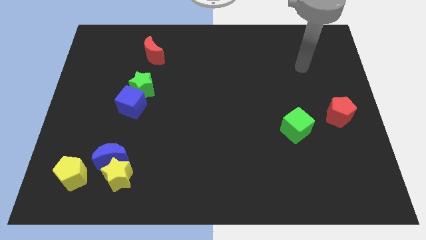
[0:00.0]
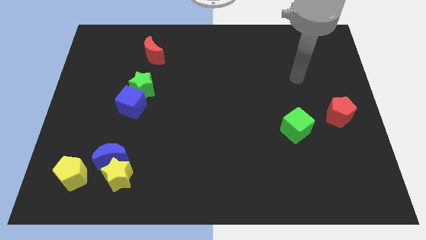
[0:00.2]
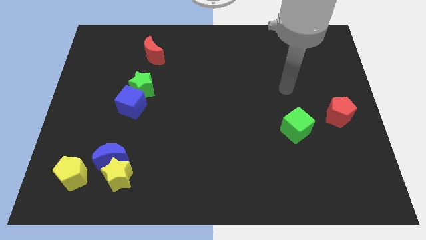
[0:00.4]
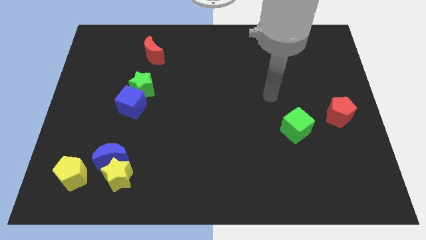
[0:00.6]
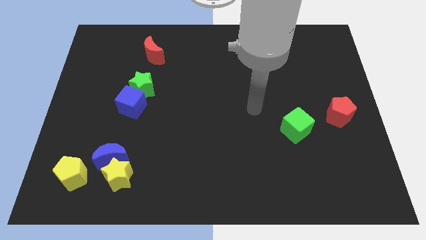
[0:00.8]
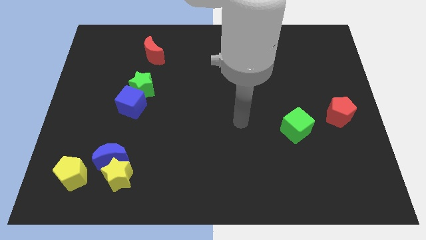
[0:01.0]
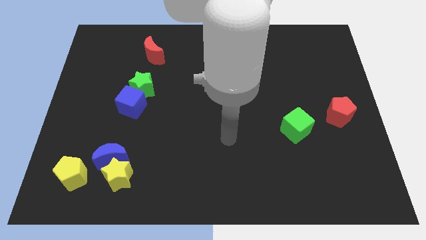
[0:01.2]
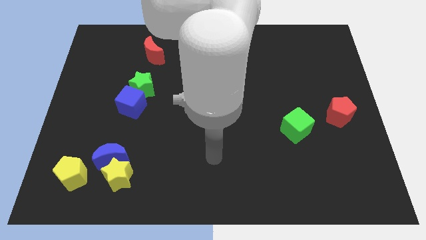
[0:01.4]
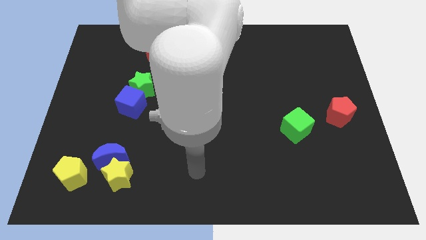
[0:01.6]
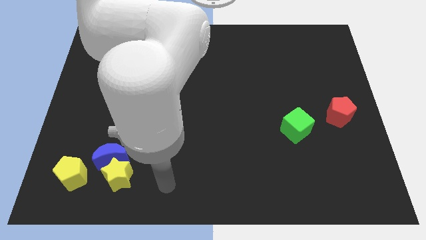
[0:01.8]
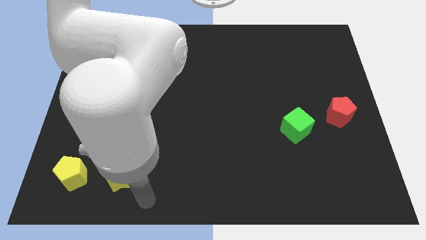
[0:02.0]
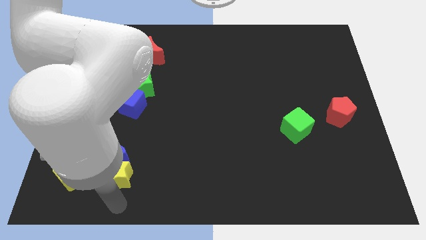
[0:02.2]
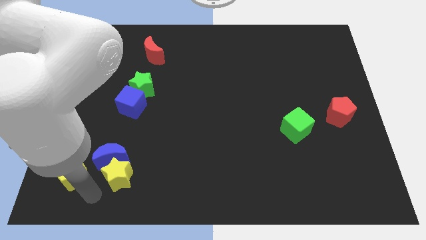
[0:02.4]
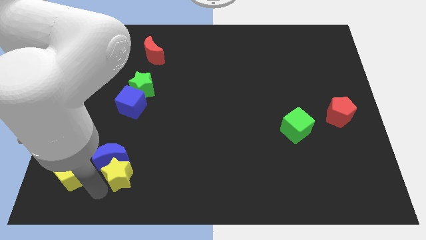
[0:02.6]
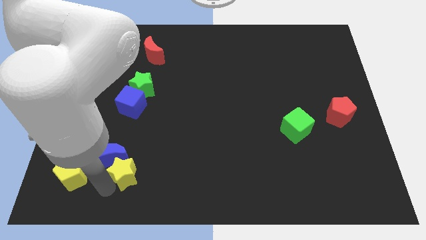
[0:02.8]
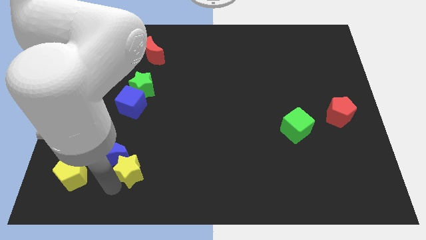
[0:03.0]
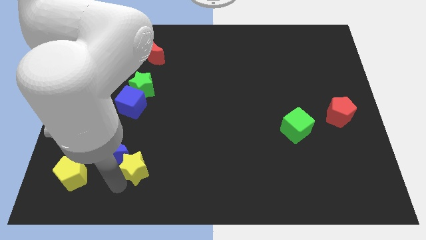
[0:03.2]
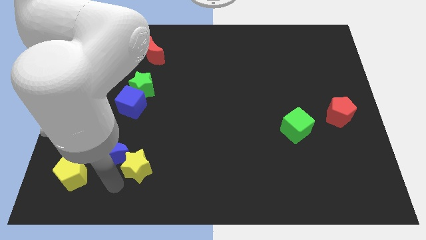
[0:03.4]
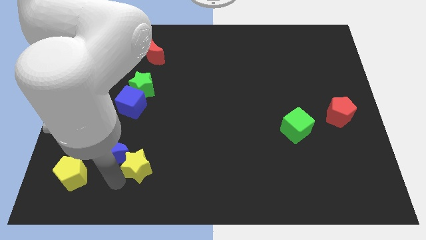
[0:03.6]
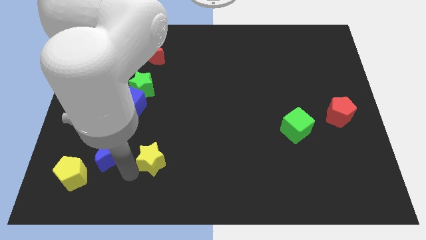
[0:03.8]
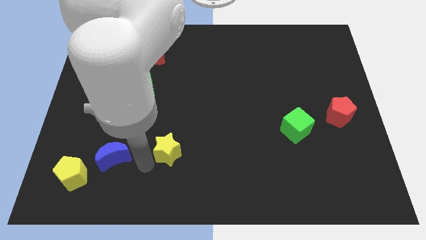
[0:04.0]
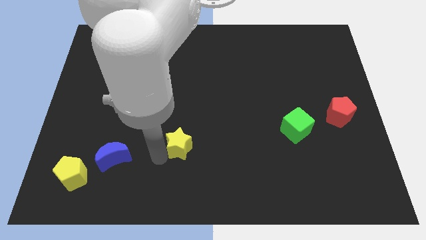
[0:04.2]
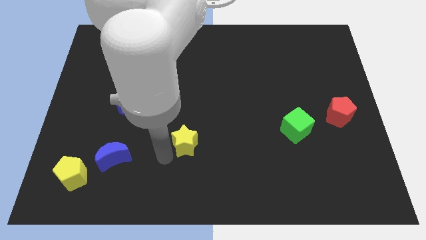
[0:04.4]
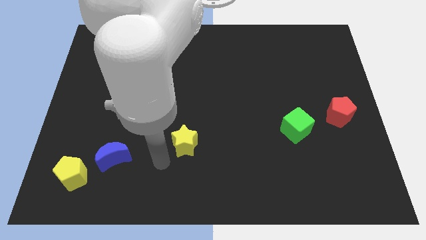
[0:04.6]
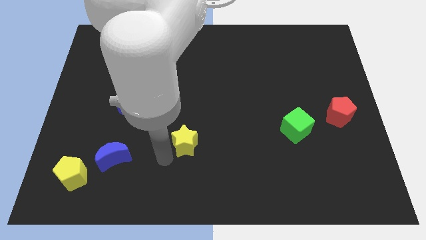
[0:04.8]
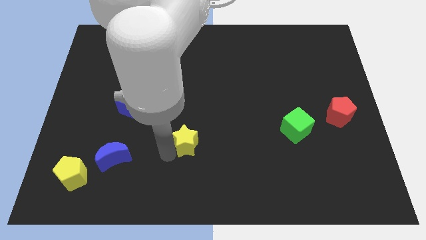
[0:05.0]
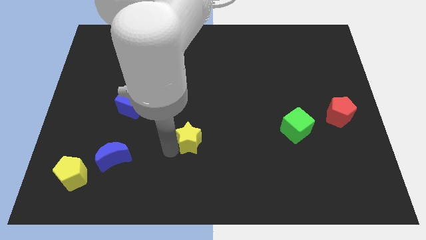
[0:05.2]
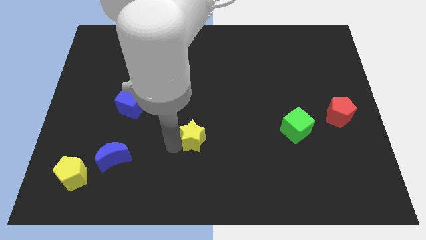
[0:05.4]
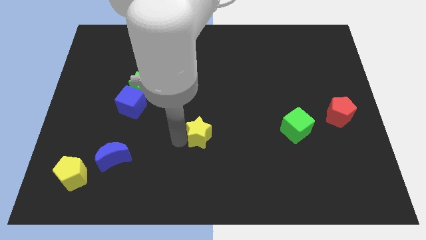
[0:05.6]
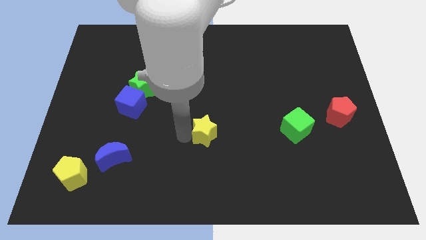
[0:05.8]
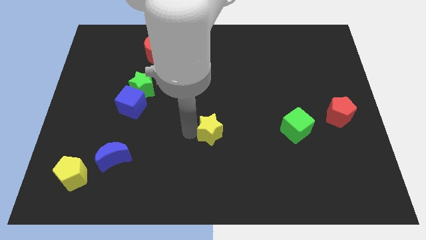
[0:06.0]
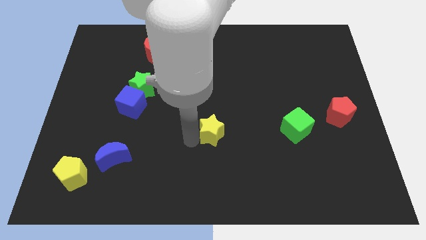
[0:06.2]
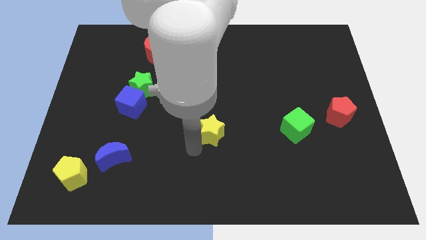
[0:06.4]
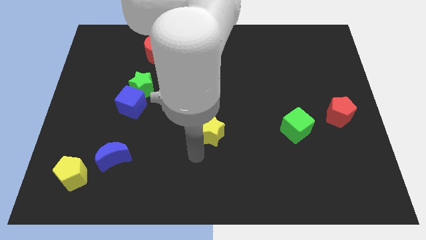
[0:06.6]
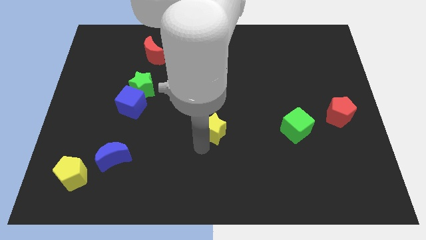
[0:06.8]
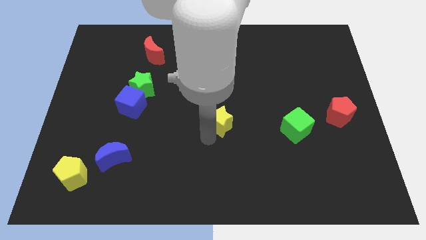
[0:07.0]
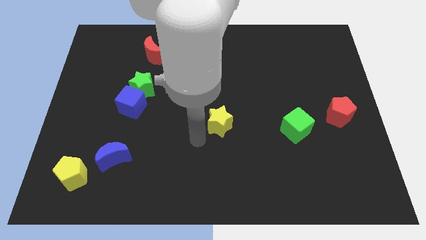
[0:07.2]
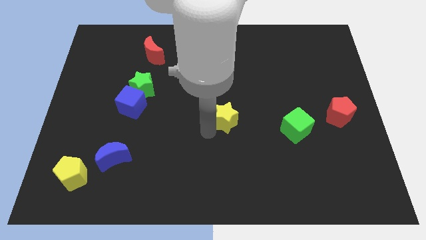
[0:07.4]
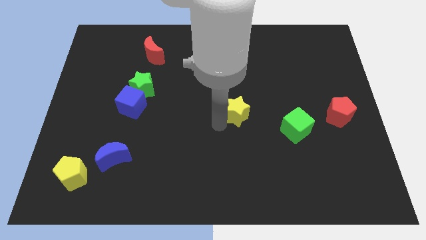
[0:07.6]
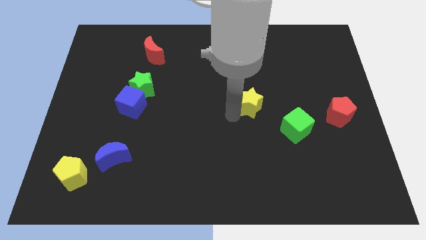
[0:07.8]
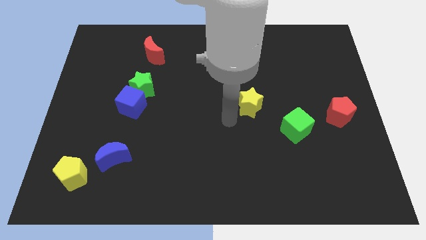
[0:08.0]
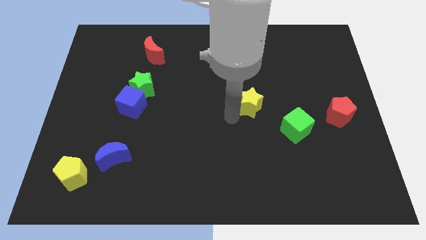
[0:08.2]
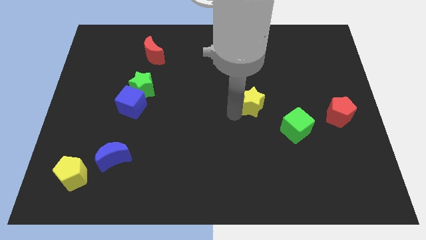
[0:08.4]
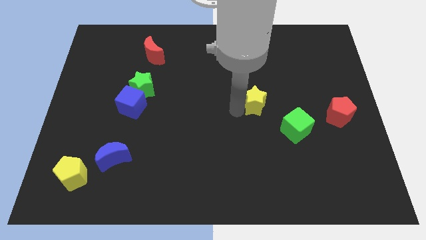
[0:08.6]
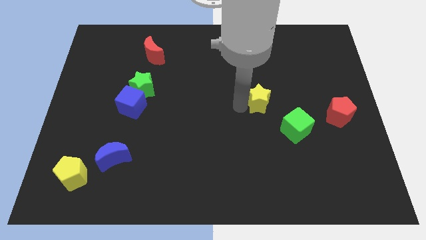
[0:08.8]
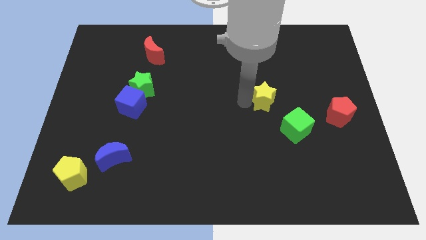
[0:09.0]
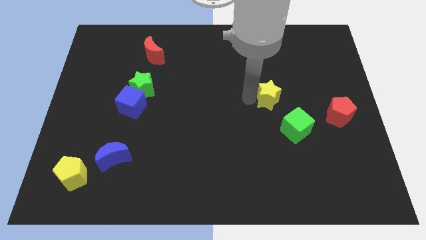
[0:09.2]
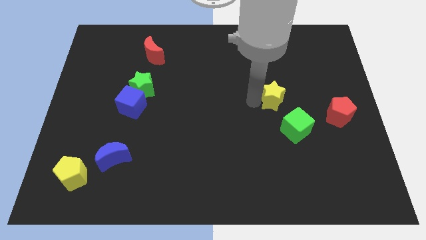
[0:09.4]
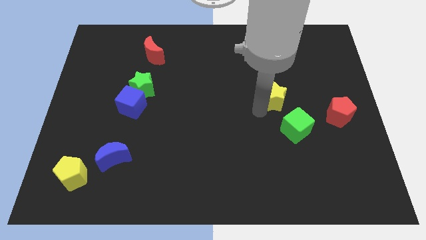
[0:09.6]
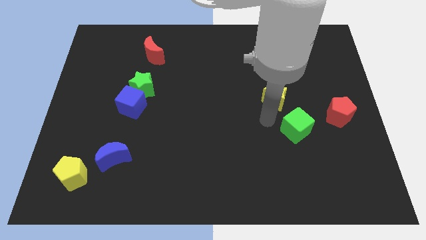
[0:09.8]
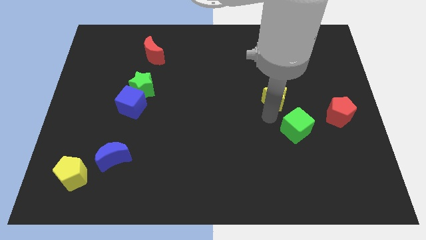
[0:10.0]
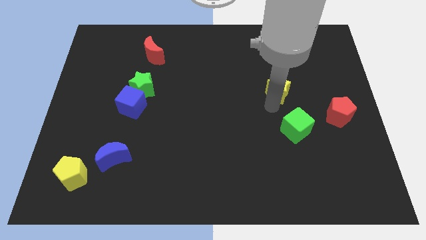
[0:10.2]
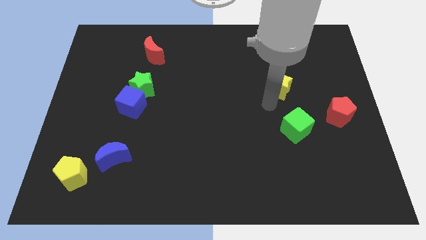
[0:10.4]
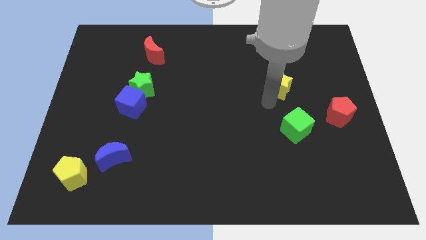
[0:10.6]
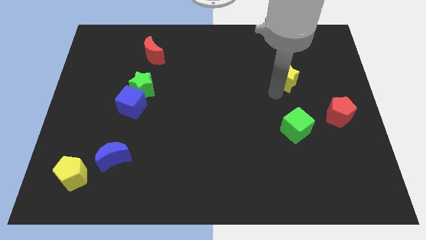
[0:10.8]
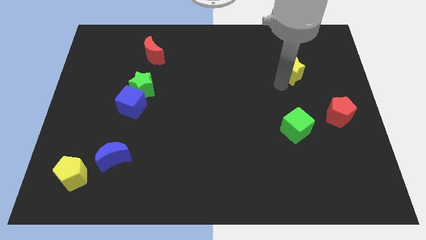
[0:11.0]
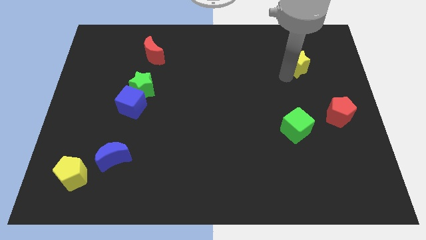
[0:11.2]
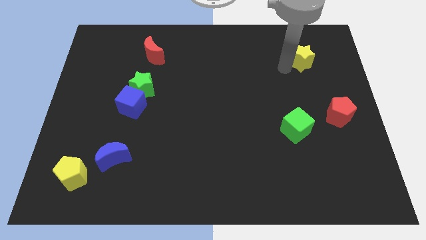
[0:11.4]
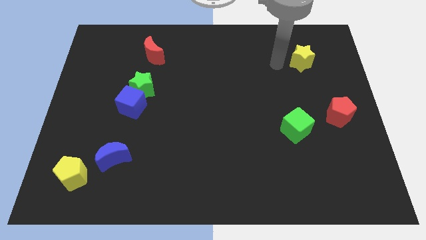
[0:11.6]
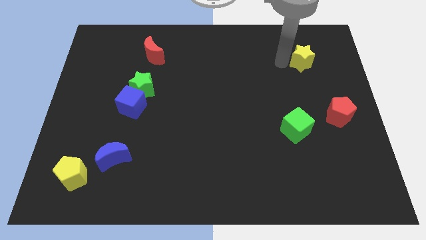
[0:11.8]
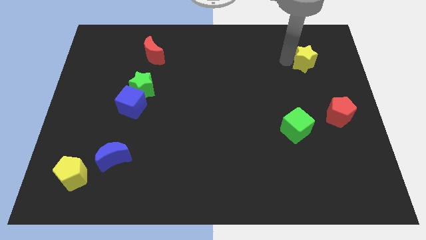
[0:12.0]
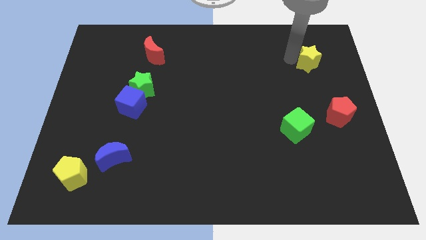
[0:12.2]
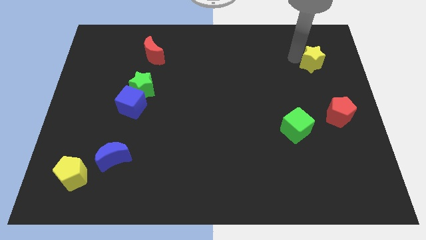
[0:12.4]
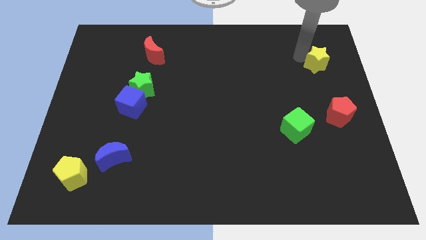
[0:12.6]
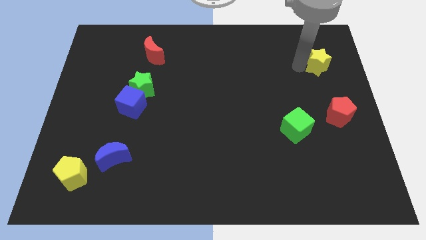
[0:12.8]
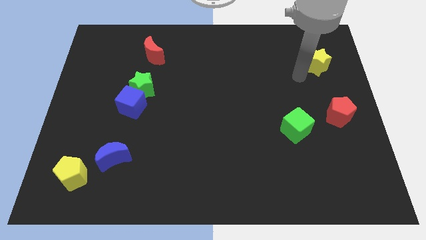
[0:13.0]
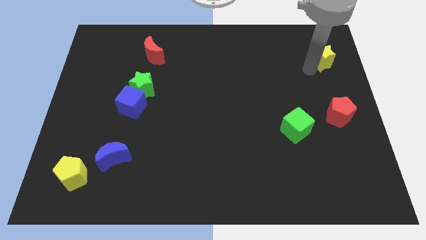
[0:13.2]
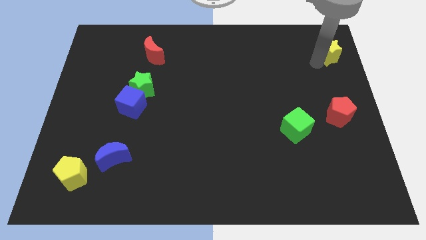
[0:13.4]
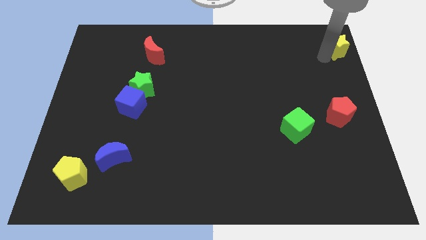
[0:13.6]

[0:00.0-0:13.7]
push the yellow star to the upper right corner
